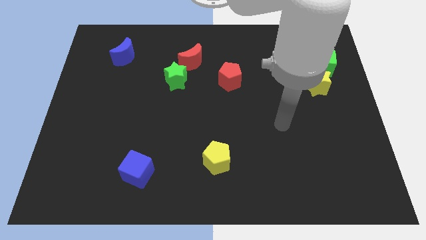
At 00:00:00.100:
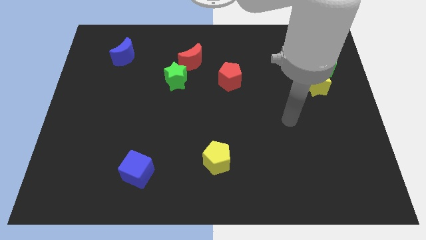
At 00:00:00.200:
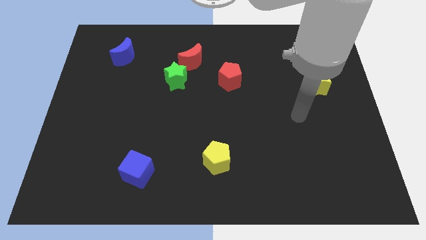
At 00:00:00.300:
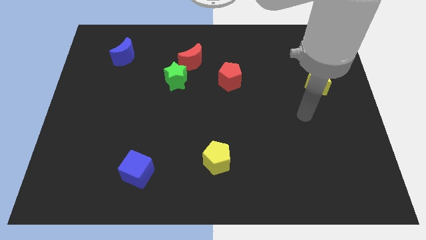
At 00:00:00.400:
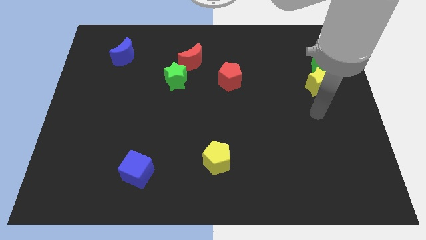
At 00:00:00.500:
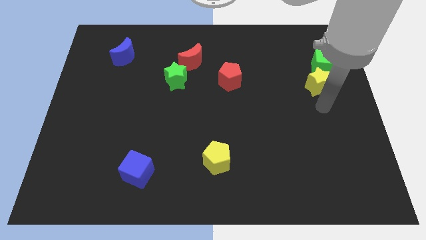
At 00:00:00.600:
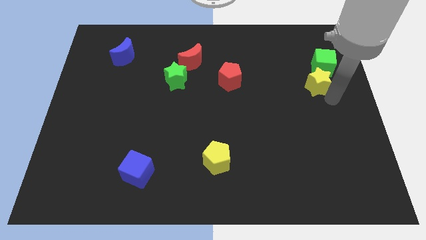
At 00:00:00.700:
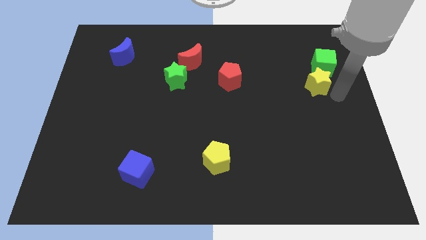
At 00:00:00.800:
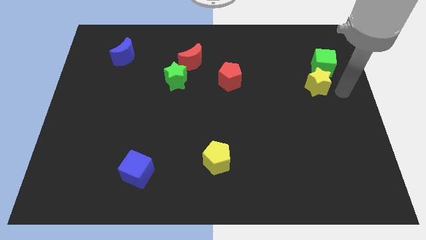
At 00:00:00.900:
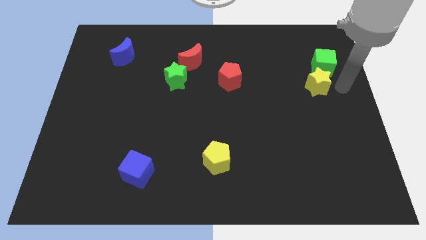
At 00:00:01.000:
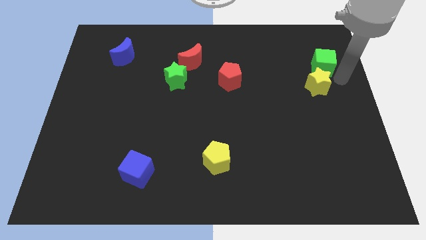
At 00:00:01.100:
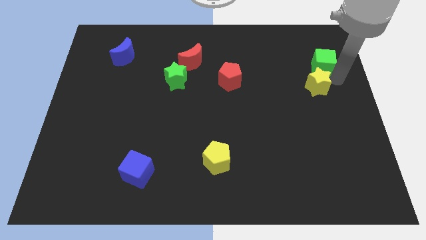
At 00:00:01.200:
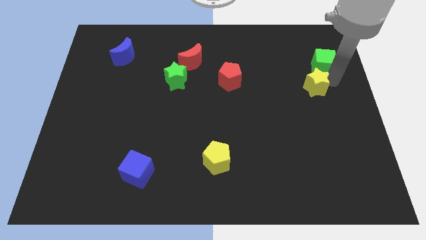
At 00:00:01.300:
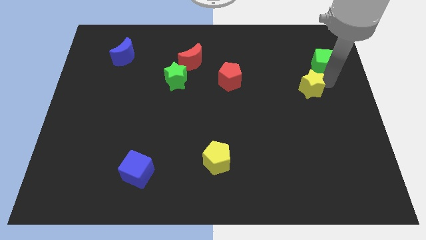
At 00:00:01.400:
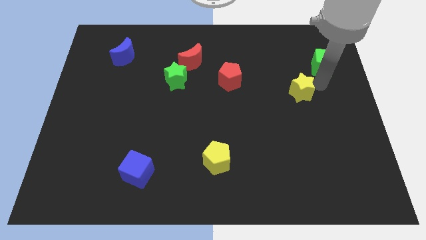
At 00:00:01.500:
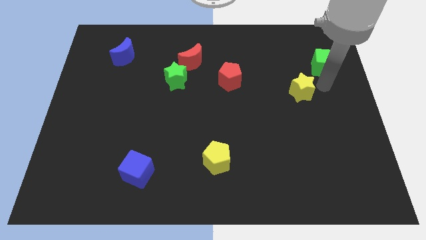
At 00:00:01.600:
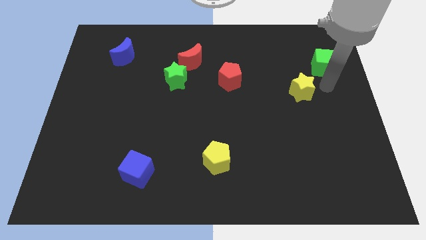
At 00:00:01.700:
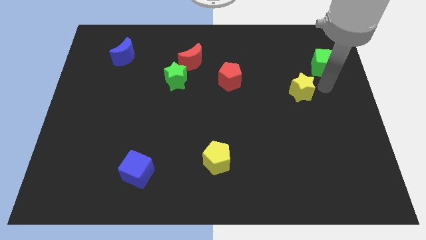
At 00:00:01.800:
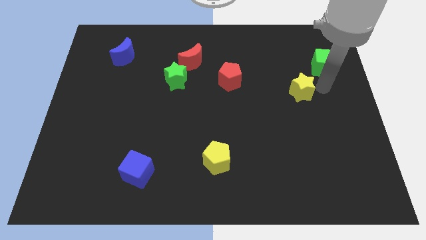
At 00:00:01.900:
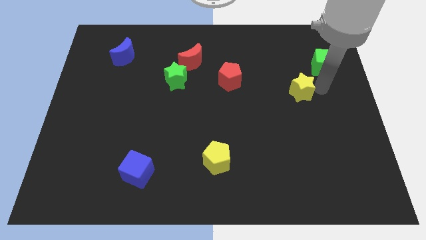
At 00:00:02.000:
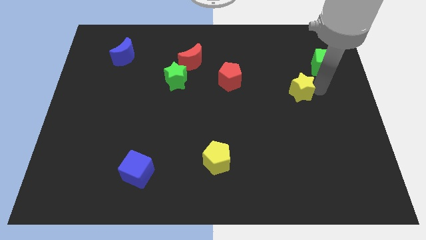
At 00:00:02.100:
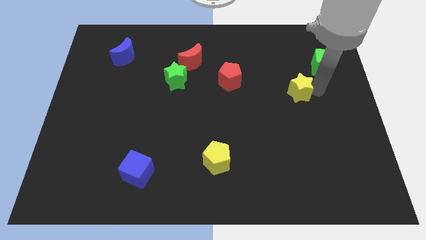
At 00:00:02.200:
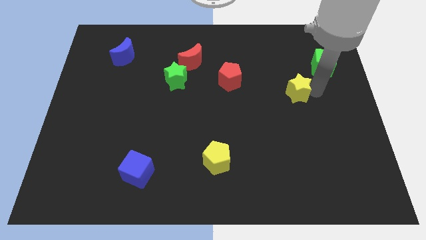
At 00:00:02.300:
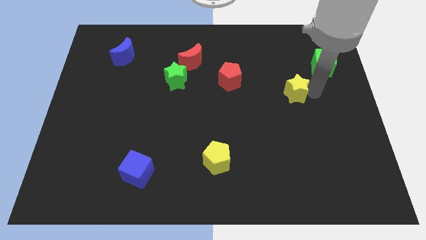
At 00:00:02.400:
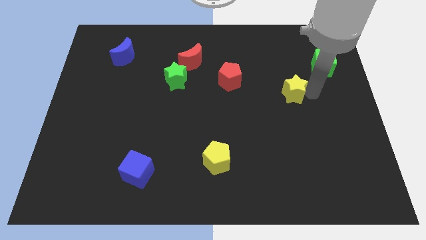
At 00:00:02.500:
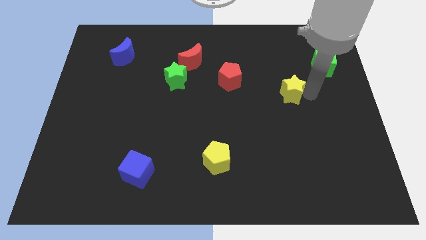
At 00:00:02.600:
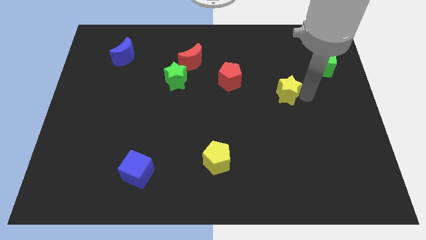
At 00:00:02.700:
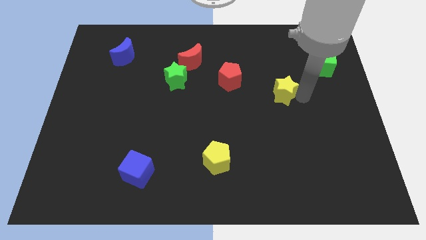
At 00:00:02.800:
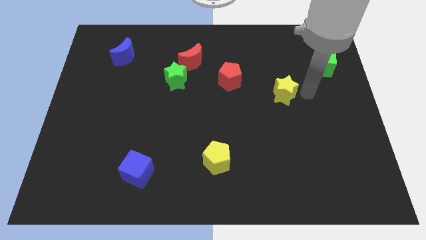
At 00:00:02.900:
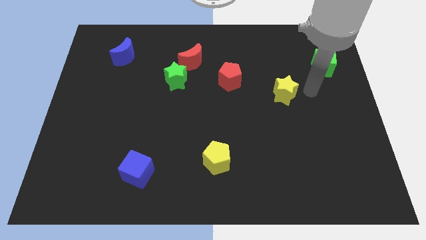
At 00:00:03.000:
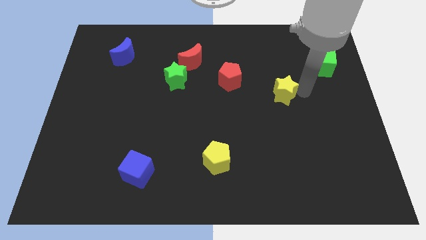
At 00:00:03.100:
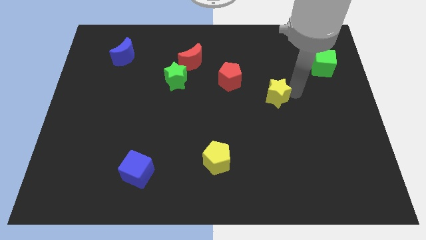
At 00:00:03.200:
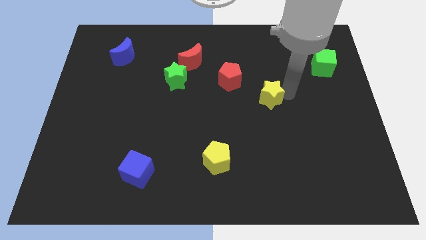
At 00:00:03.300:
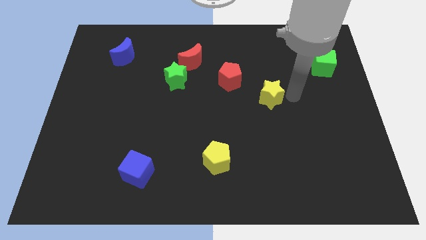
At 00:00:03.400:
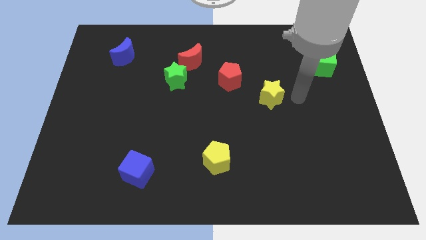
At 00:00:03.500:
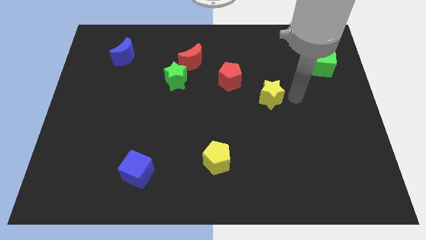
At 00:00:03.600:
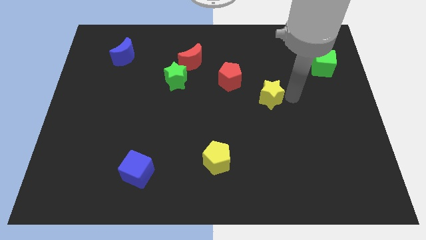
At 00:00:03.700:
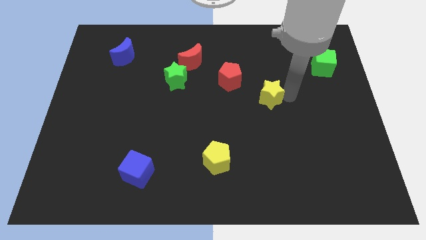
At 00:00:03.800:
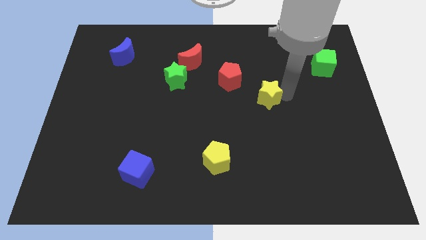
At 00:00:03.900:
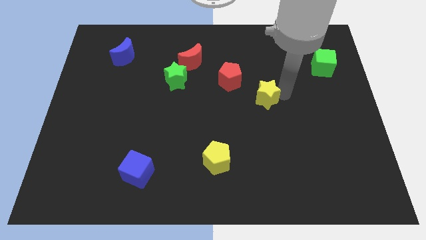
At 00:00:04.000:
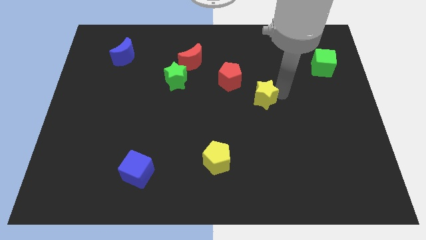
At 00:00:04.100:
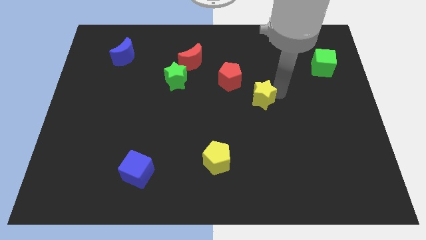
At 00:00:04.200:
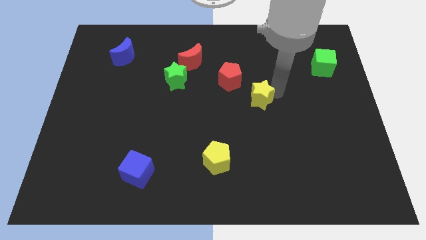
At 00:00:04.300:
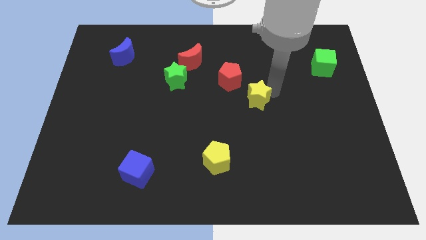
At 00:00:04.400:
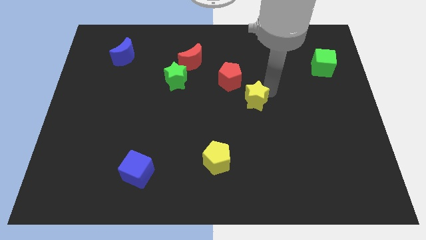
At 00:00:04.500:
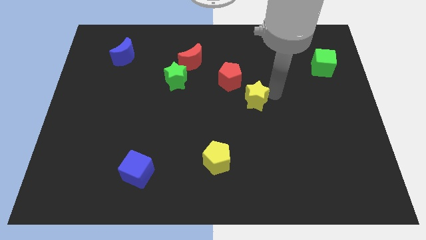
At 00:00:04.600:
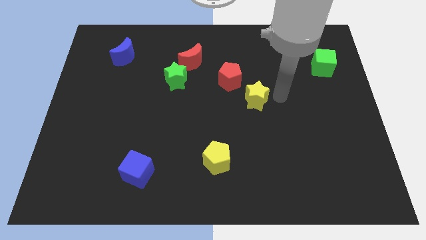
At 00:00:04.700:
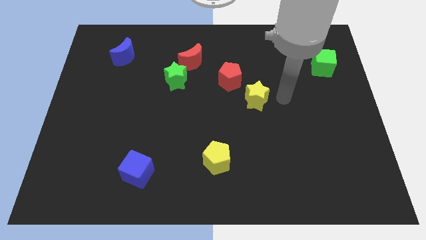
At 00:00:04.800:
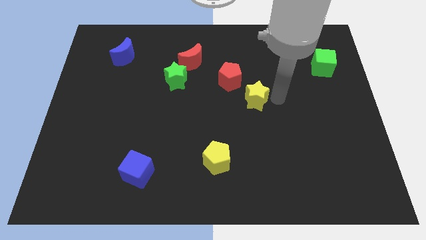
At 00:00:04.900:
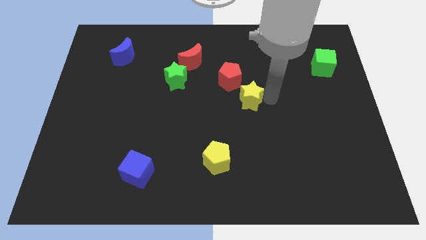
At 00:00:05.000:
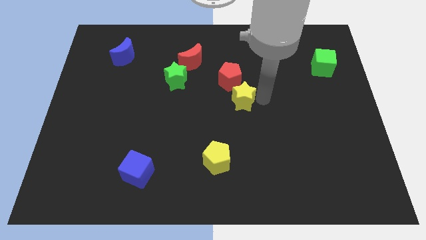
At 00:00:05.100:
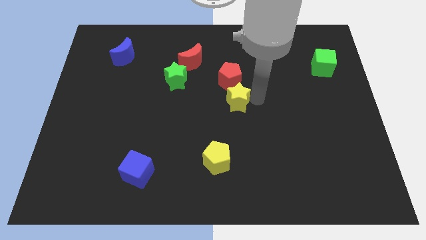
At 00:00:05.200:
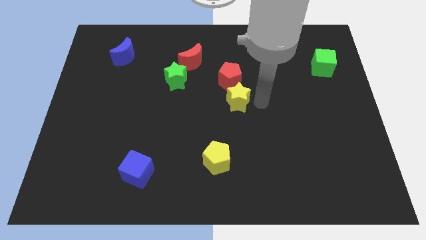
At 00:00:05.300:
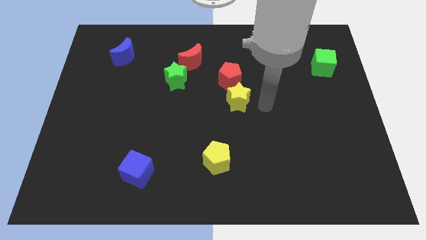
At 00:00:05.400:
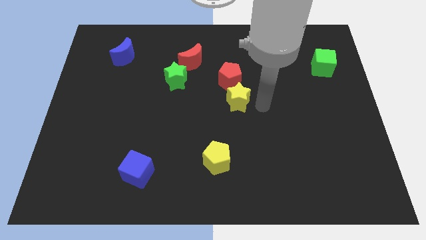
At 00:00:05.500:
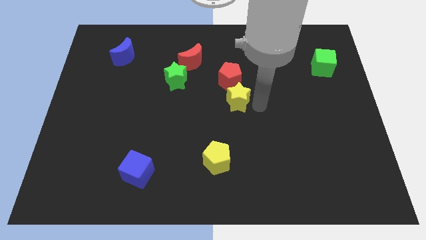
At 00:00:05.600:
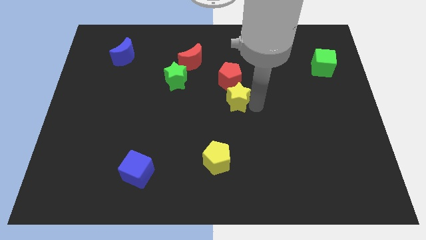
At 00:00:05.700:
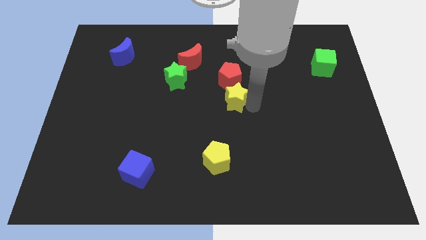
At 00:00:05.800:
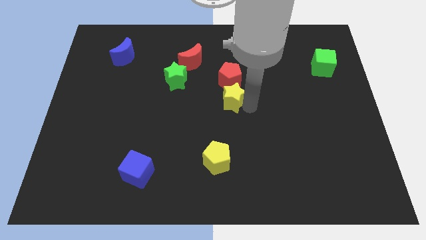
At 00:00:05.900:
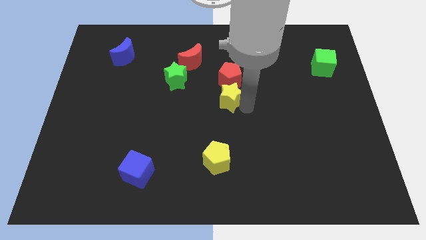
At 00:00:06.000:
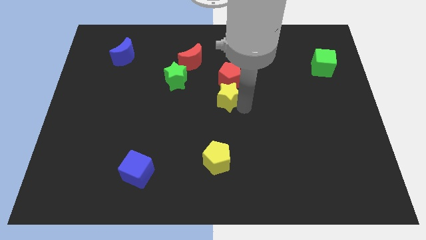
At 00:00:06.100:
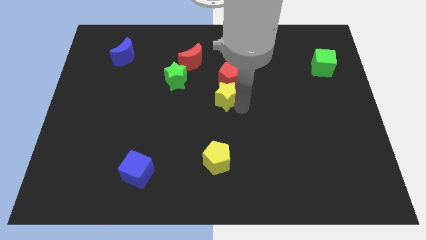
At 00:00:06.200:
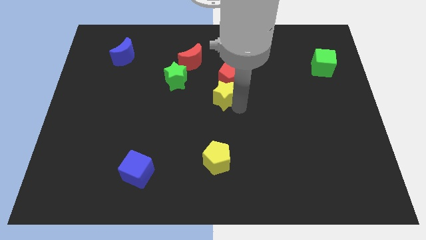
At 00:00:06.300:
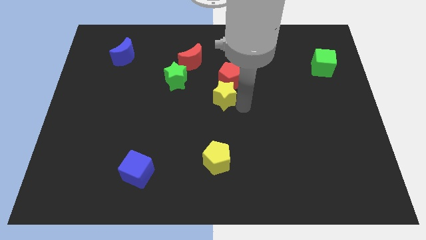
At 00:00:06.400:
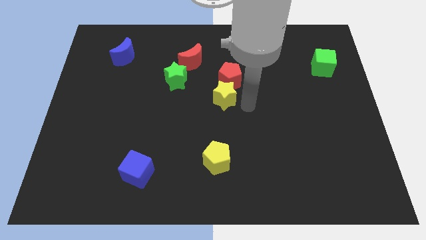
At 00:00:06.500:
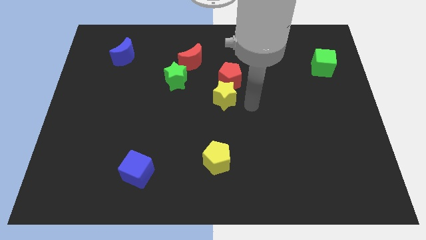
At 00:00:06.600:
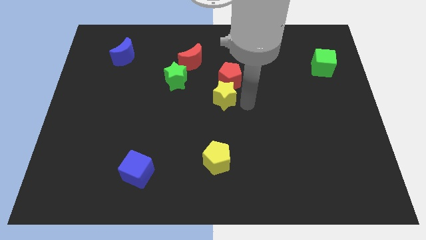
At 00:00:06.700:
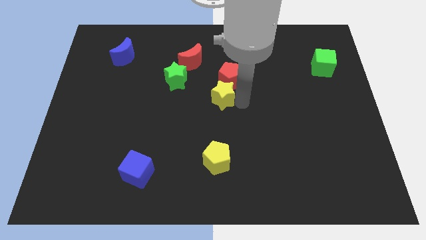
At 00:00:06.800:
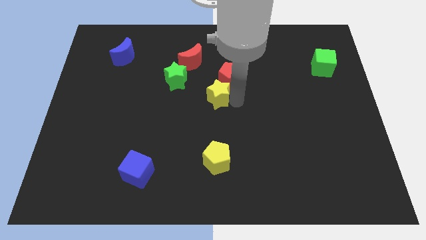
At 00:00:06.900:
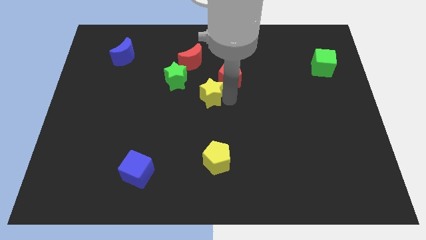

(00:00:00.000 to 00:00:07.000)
slide the yellow star to the bottom right side of the green star

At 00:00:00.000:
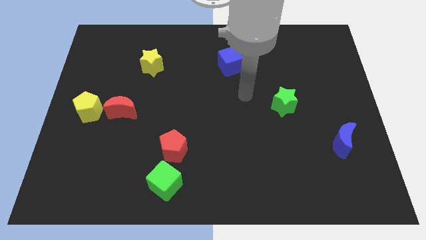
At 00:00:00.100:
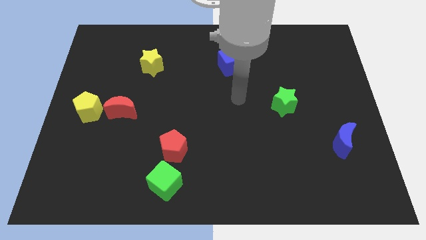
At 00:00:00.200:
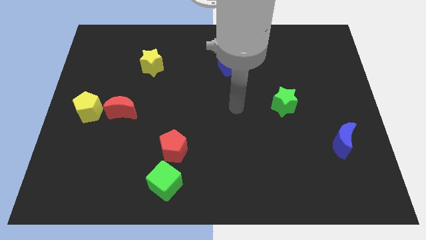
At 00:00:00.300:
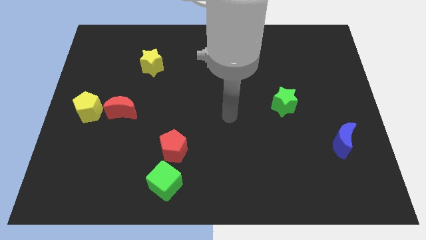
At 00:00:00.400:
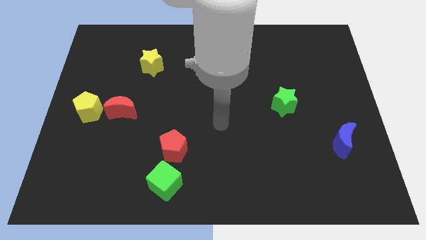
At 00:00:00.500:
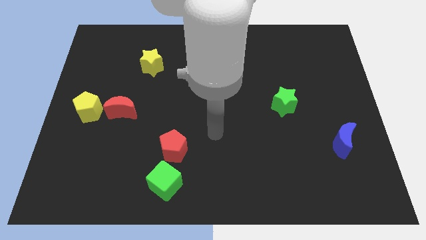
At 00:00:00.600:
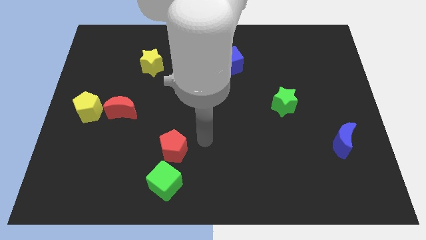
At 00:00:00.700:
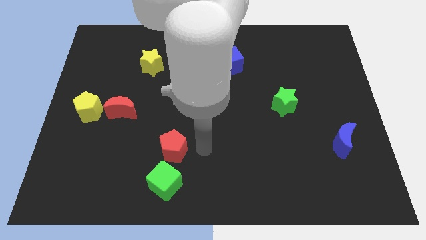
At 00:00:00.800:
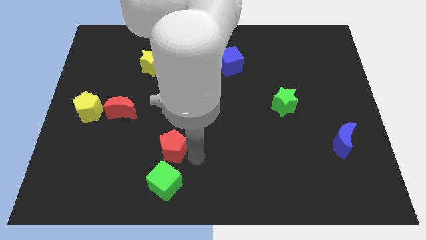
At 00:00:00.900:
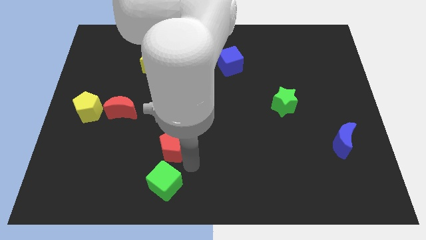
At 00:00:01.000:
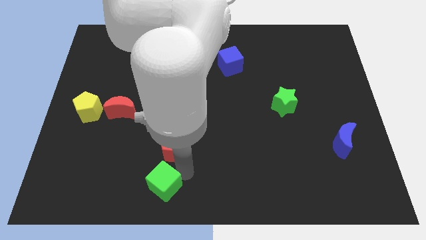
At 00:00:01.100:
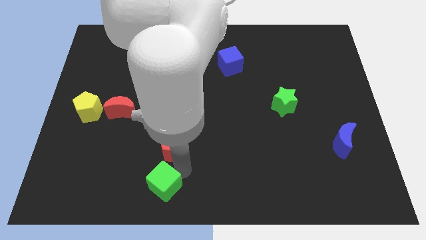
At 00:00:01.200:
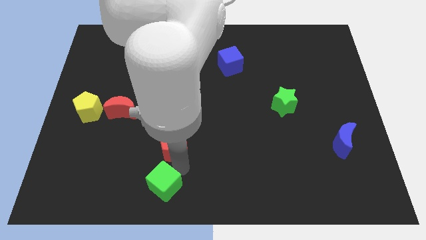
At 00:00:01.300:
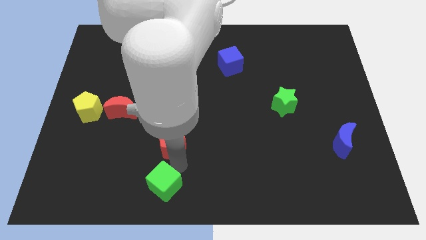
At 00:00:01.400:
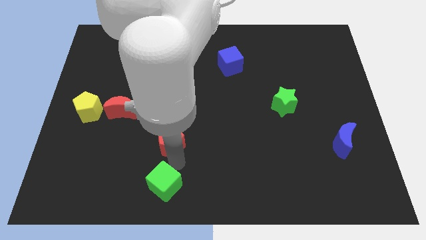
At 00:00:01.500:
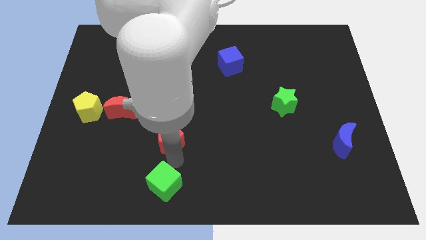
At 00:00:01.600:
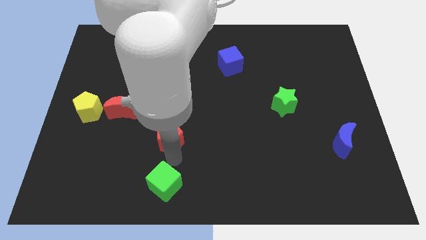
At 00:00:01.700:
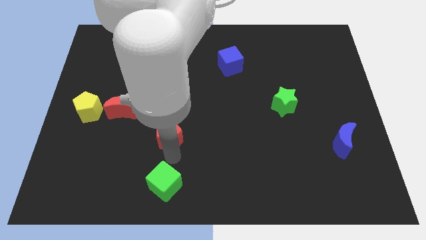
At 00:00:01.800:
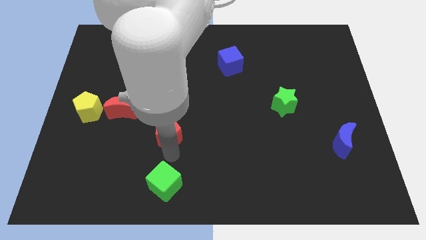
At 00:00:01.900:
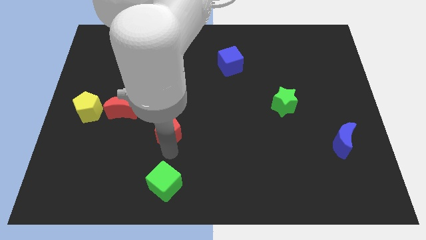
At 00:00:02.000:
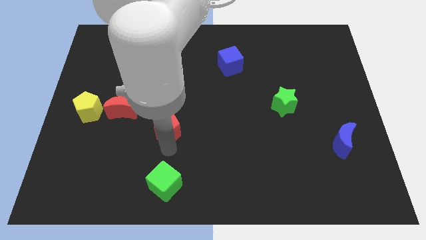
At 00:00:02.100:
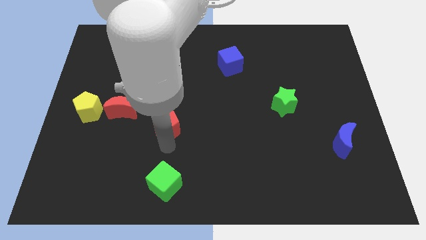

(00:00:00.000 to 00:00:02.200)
push the red pentagon to the right of the red moon
